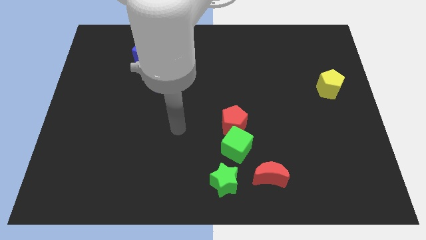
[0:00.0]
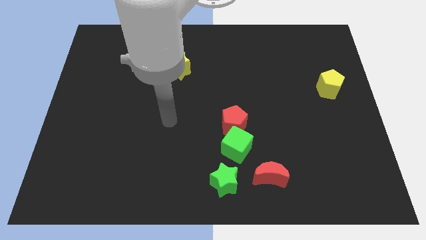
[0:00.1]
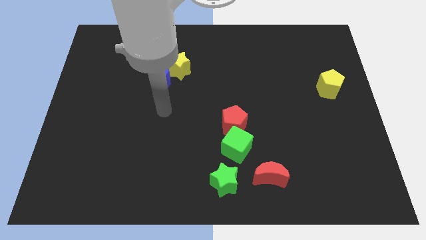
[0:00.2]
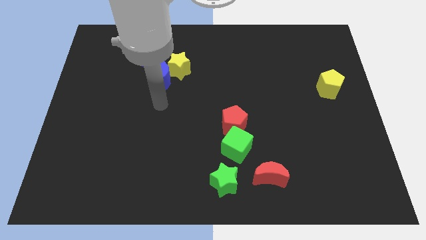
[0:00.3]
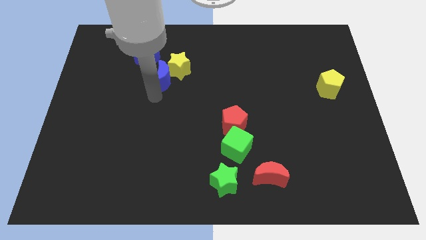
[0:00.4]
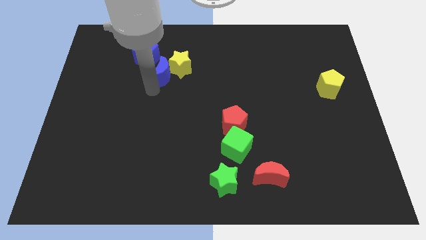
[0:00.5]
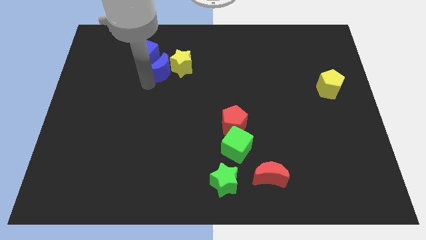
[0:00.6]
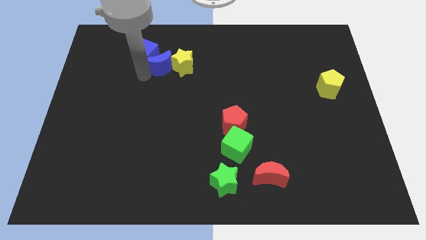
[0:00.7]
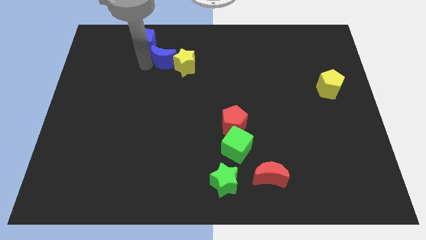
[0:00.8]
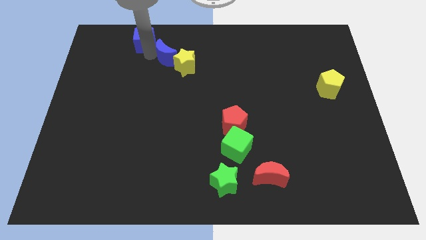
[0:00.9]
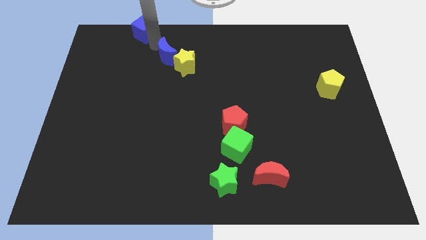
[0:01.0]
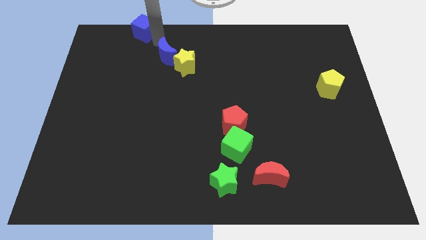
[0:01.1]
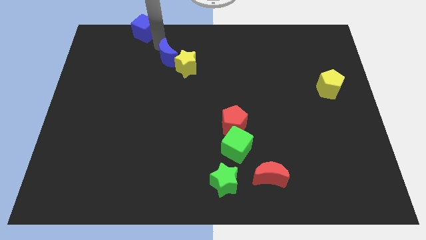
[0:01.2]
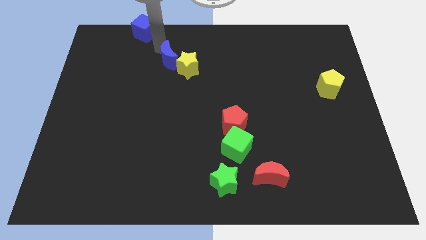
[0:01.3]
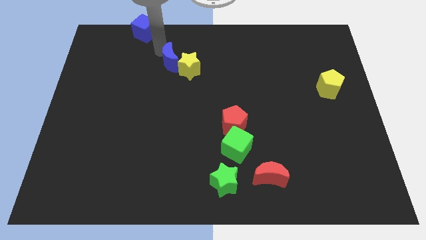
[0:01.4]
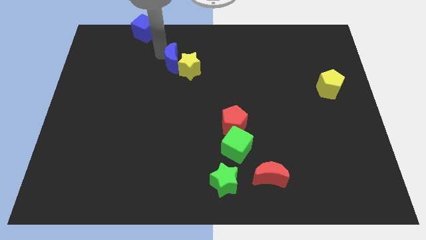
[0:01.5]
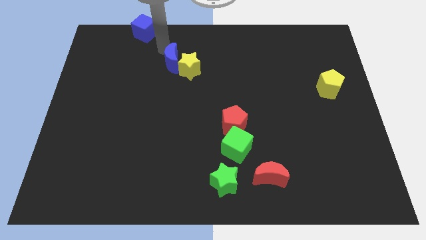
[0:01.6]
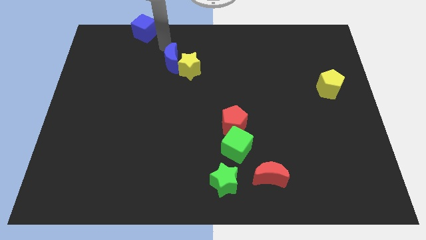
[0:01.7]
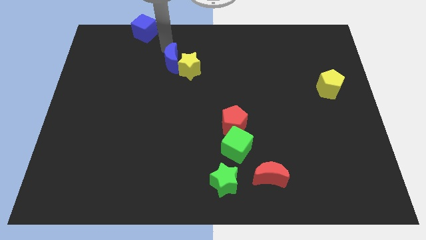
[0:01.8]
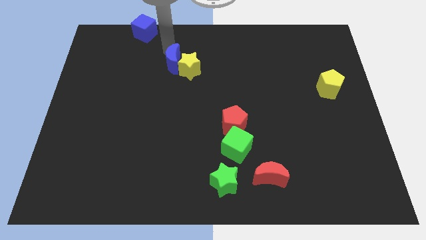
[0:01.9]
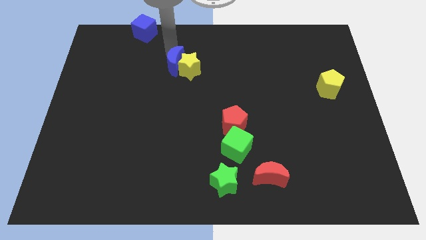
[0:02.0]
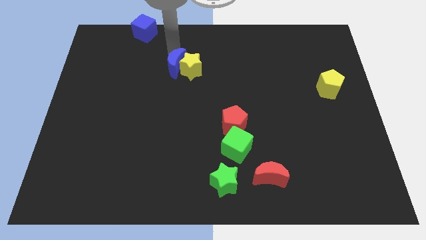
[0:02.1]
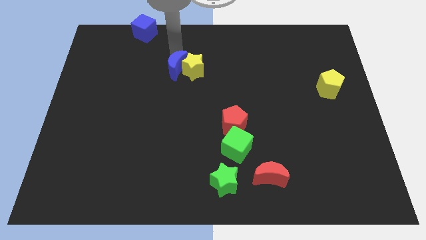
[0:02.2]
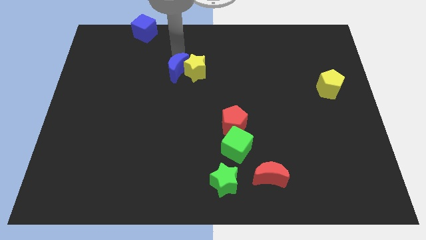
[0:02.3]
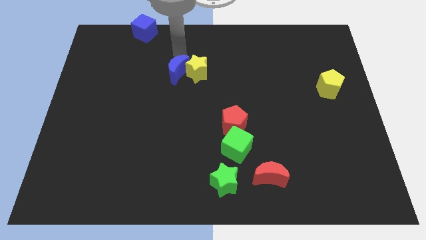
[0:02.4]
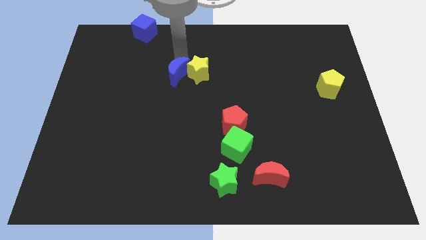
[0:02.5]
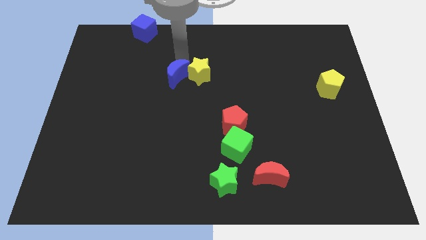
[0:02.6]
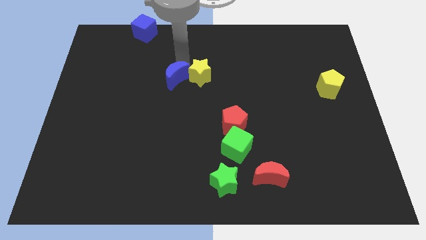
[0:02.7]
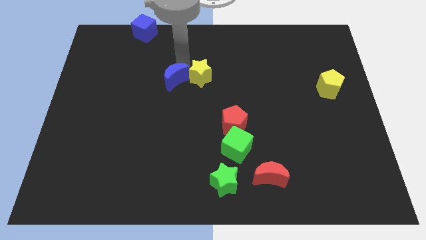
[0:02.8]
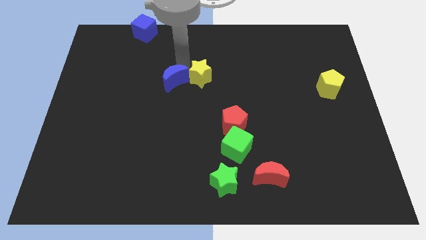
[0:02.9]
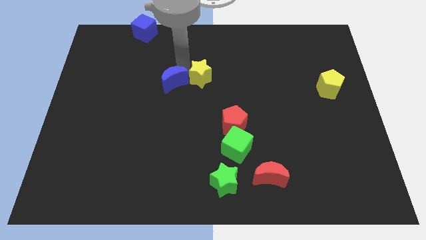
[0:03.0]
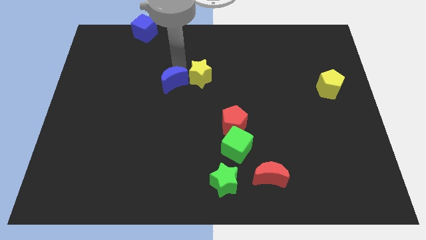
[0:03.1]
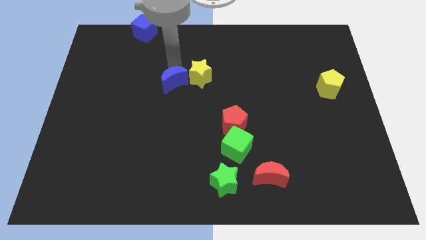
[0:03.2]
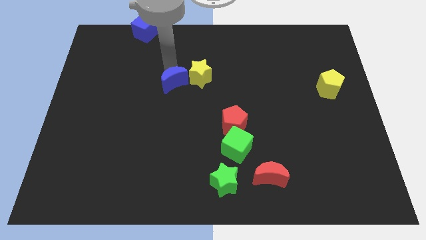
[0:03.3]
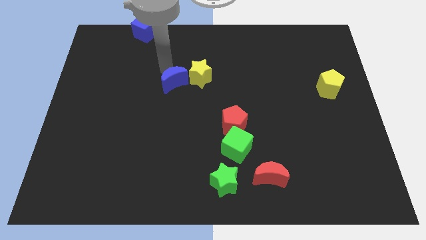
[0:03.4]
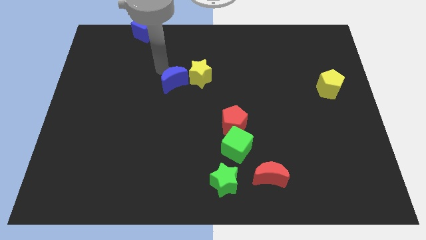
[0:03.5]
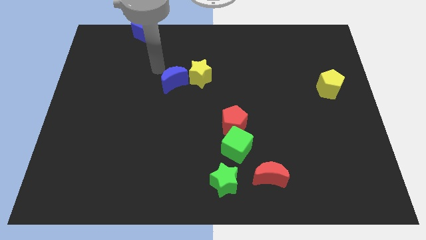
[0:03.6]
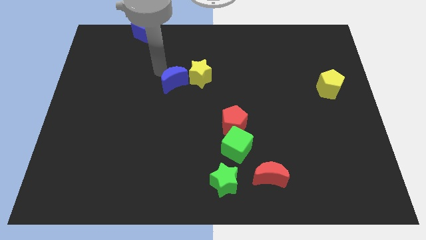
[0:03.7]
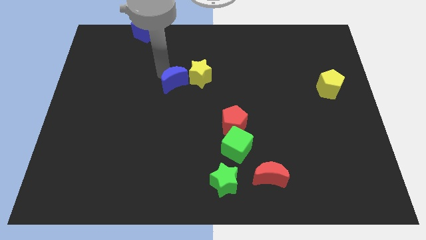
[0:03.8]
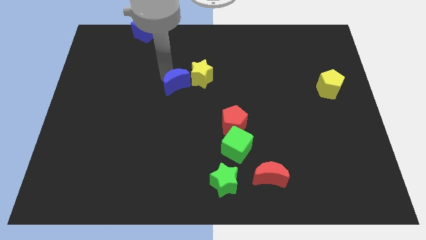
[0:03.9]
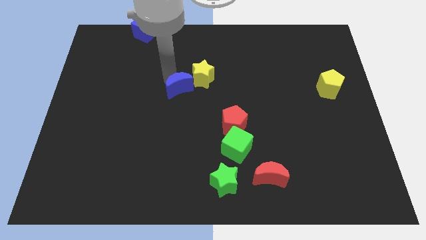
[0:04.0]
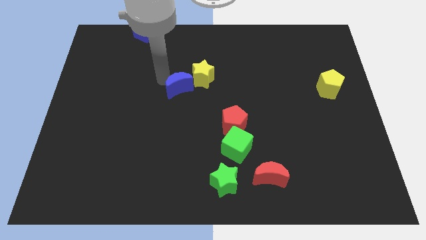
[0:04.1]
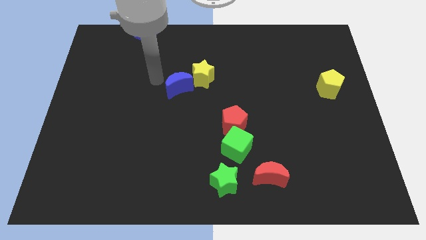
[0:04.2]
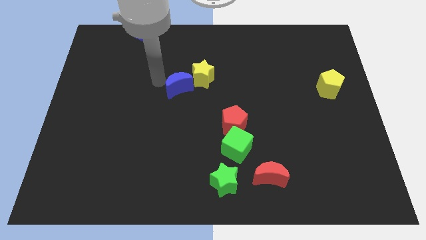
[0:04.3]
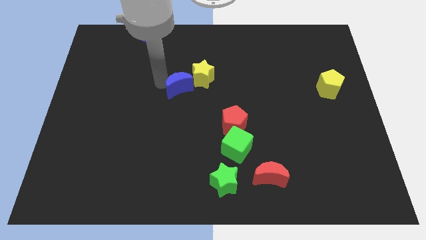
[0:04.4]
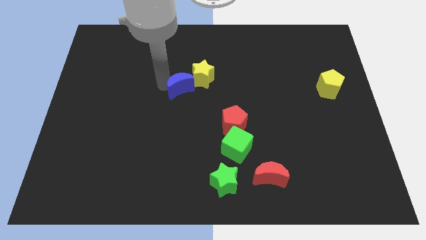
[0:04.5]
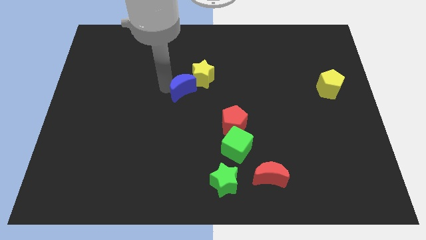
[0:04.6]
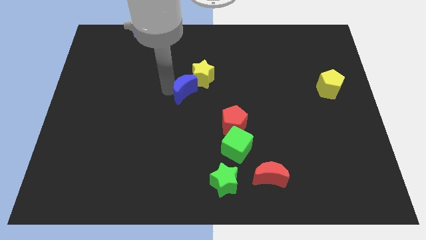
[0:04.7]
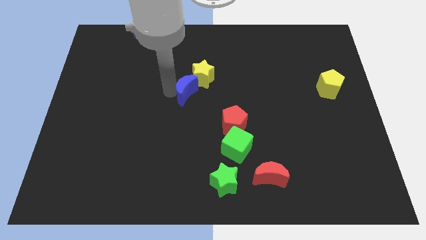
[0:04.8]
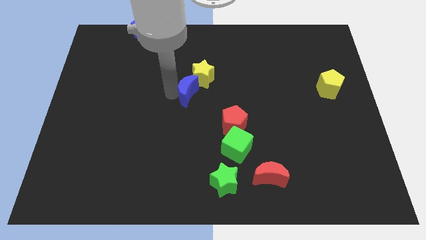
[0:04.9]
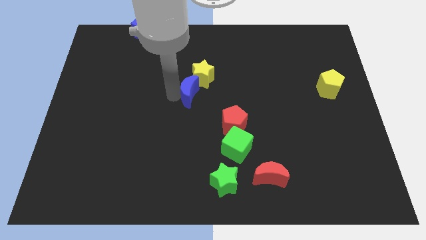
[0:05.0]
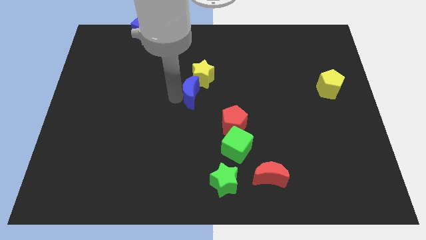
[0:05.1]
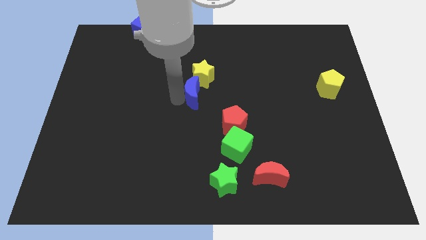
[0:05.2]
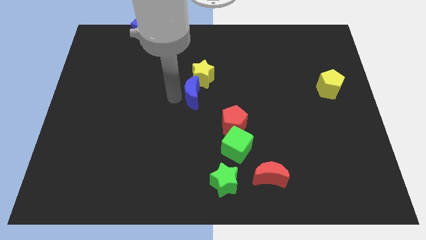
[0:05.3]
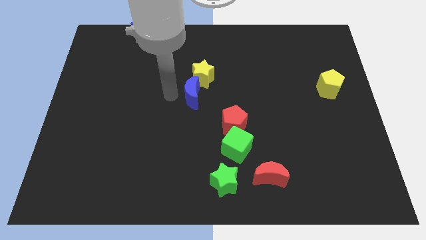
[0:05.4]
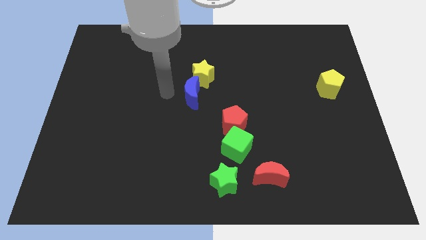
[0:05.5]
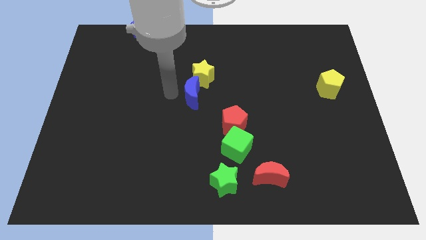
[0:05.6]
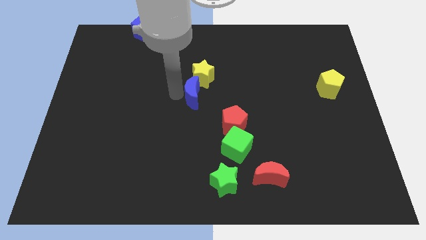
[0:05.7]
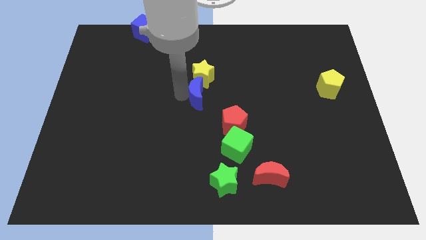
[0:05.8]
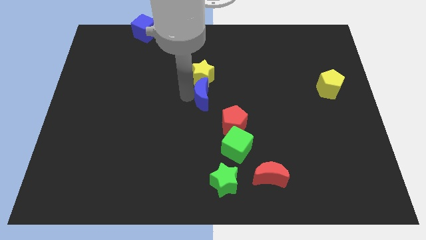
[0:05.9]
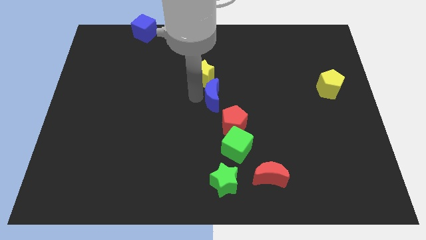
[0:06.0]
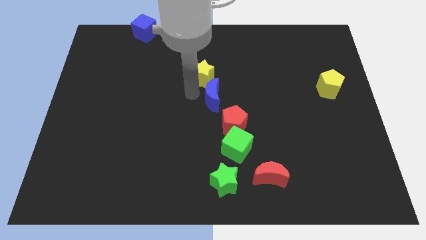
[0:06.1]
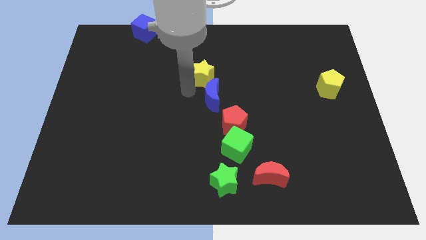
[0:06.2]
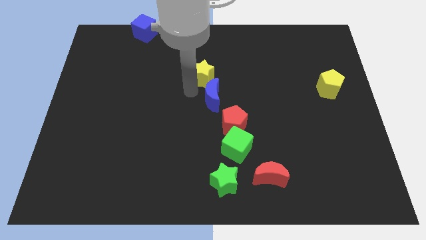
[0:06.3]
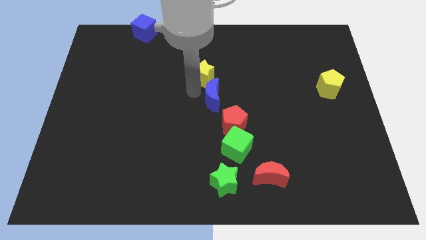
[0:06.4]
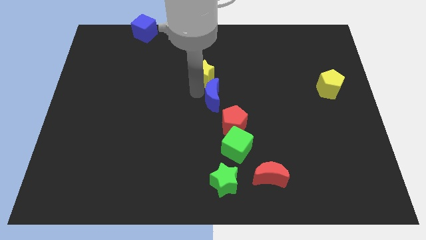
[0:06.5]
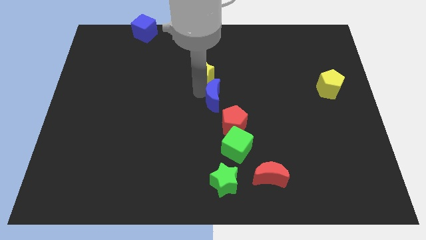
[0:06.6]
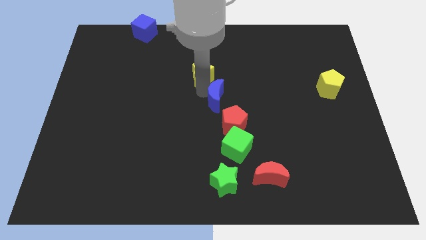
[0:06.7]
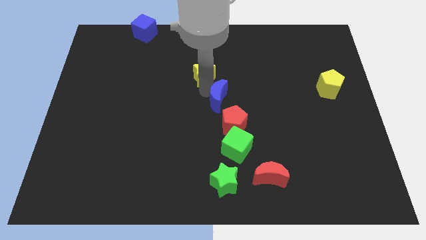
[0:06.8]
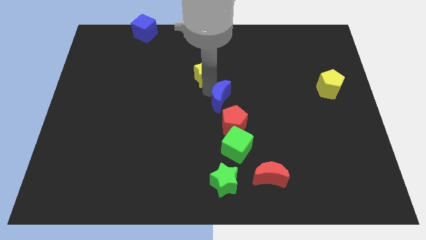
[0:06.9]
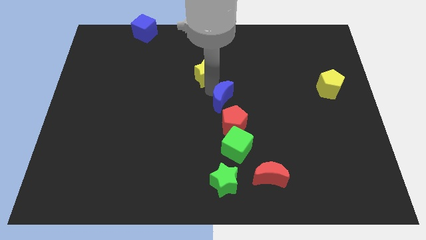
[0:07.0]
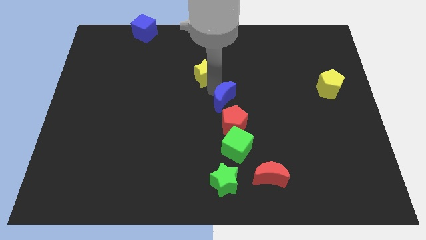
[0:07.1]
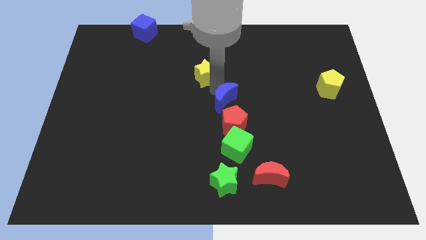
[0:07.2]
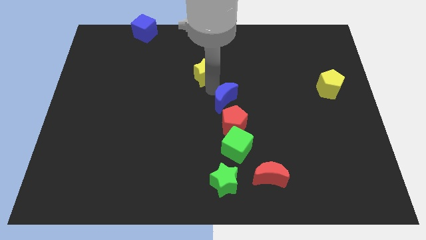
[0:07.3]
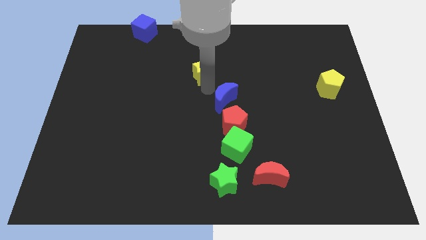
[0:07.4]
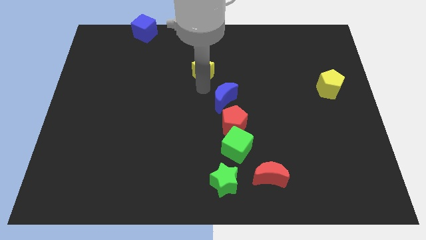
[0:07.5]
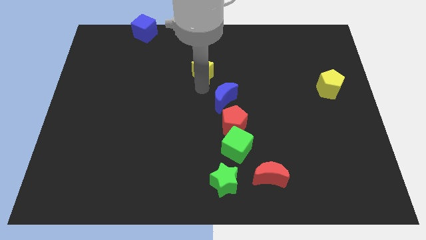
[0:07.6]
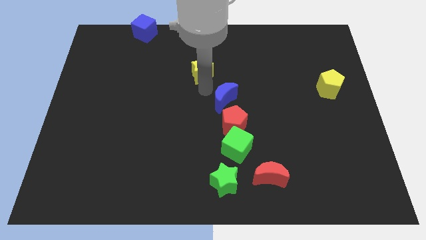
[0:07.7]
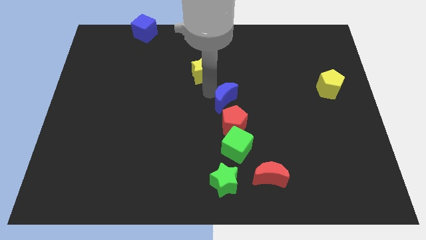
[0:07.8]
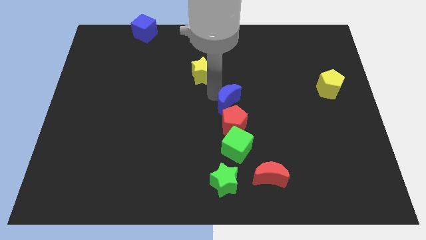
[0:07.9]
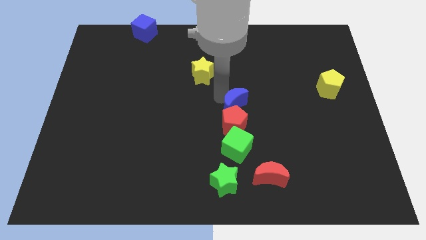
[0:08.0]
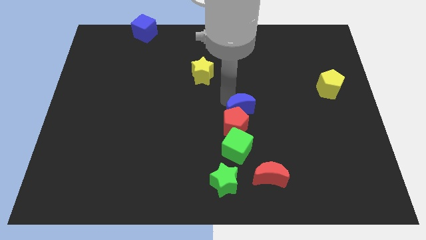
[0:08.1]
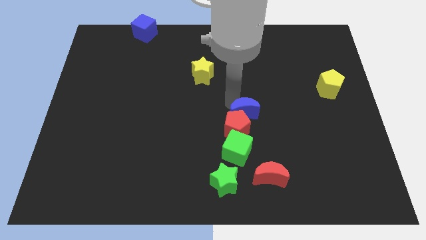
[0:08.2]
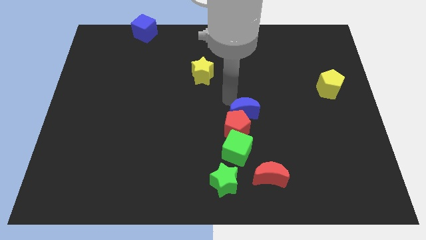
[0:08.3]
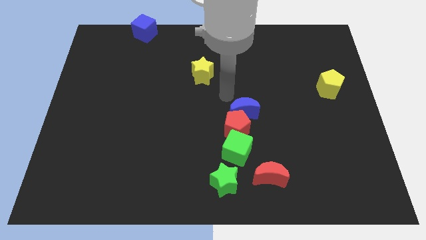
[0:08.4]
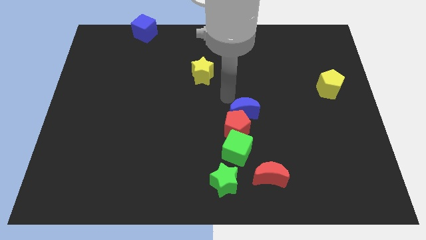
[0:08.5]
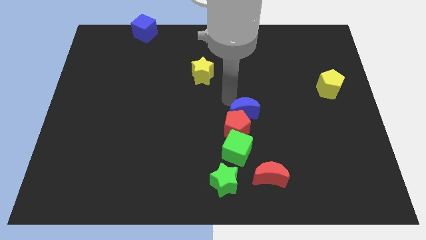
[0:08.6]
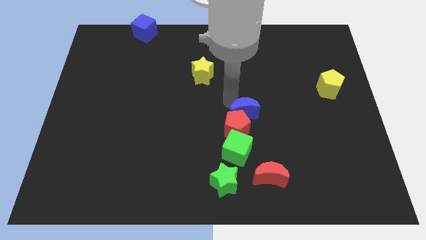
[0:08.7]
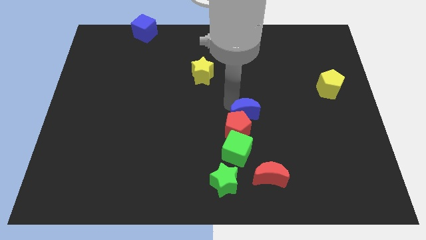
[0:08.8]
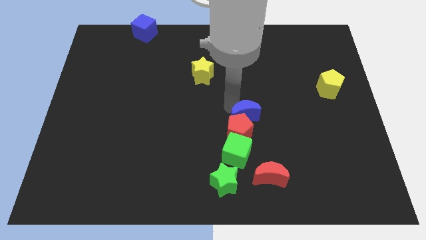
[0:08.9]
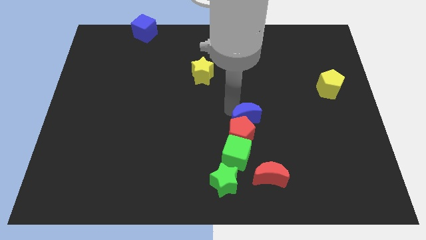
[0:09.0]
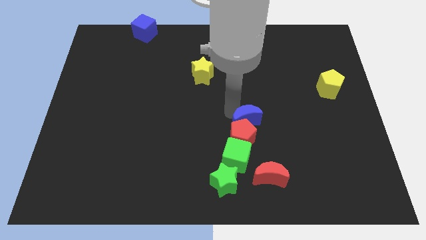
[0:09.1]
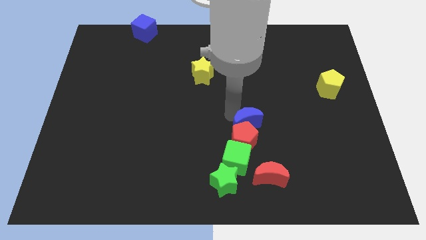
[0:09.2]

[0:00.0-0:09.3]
put the blue moon to the top of the red moon
